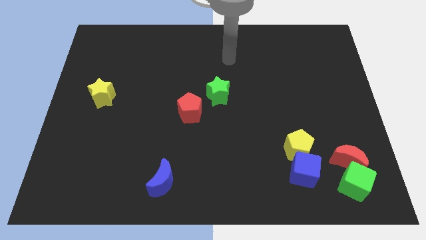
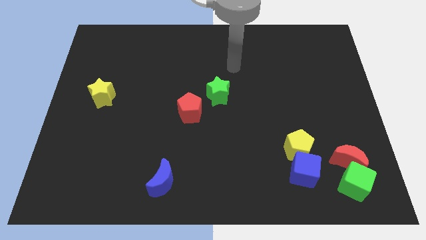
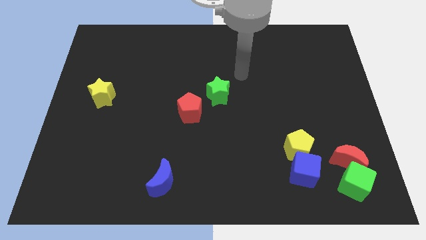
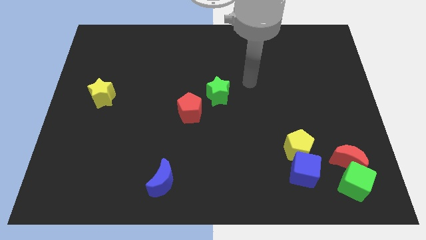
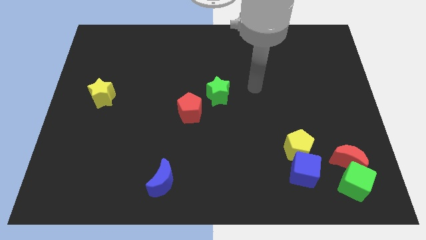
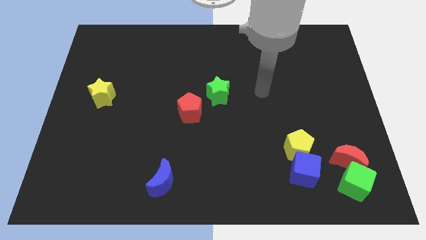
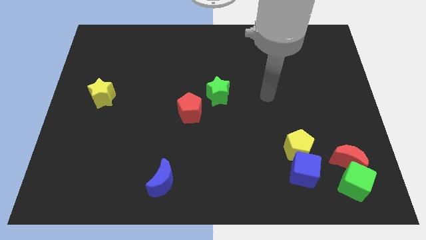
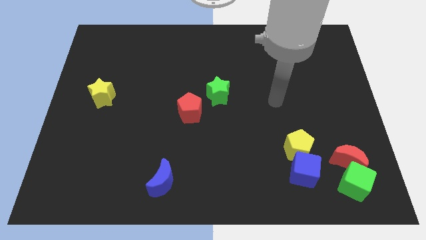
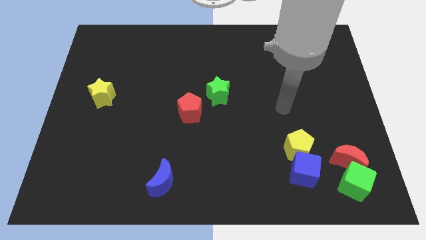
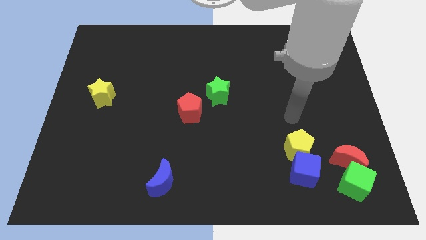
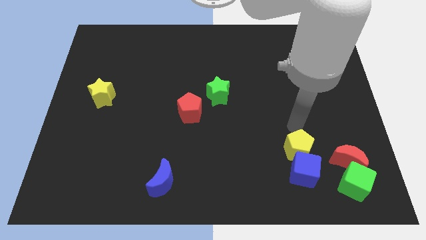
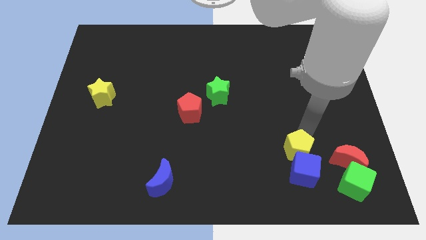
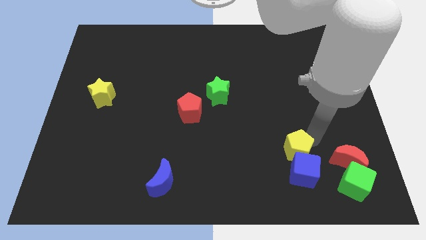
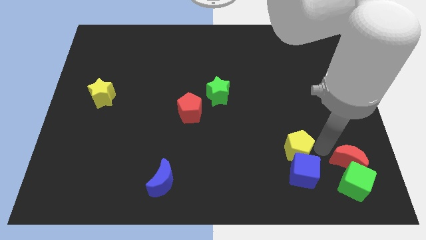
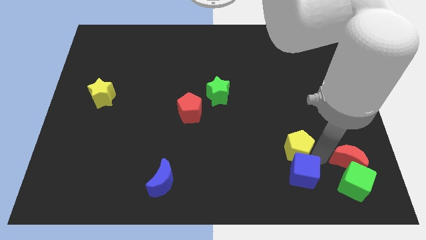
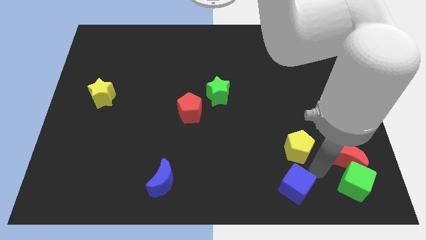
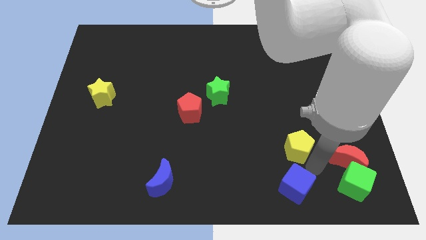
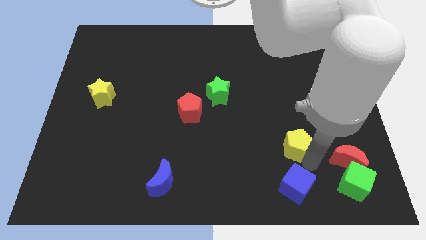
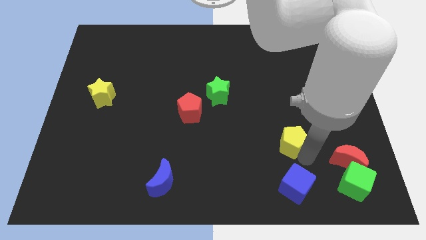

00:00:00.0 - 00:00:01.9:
separate the yellow pentagon from the blue cube

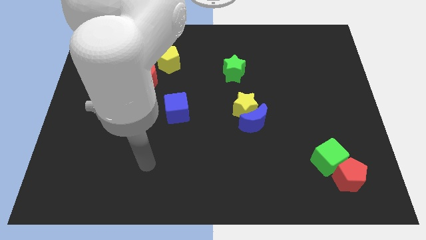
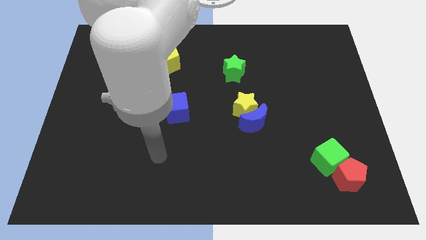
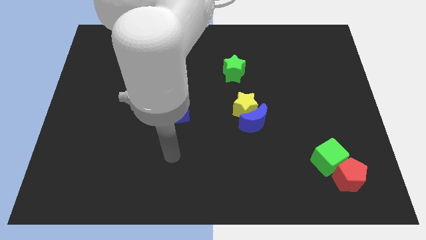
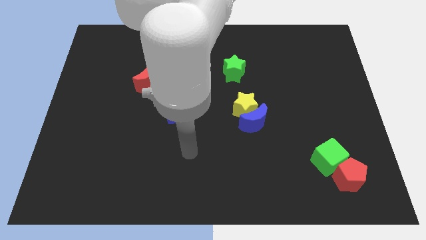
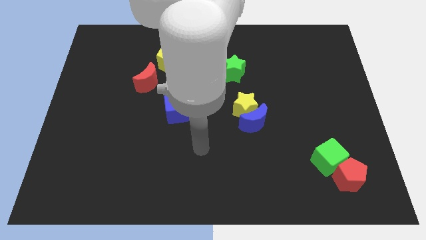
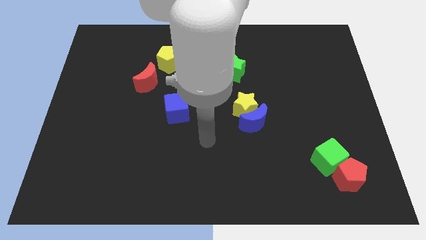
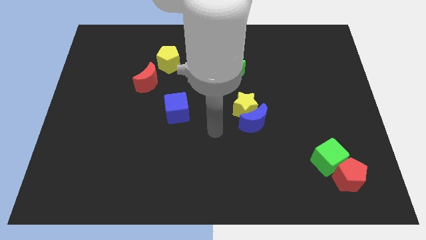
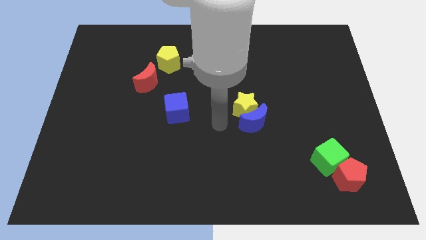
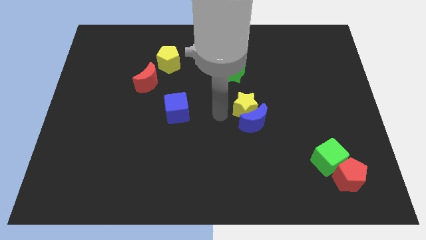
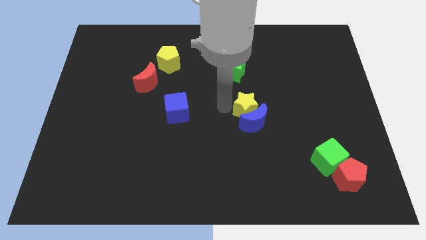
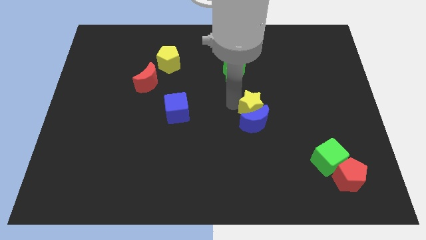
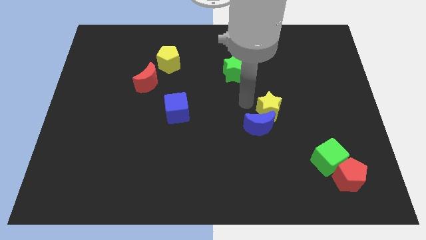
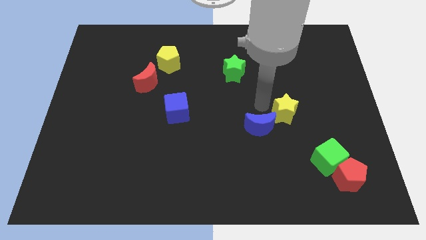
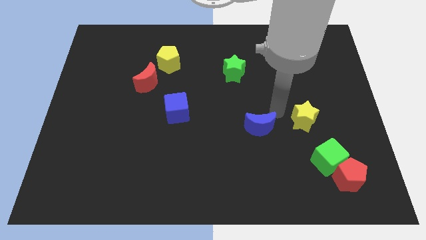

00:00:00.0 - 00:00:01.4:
pull the blue moon apart from the yellow star

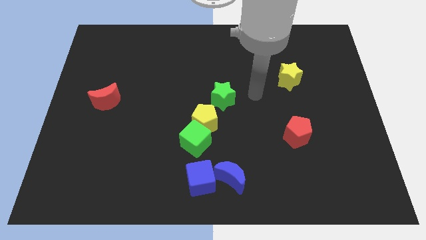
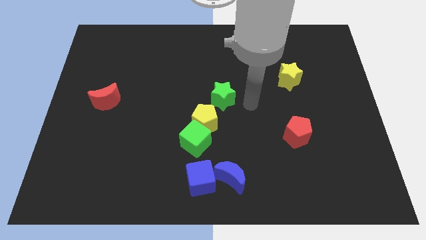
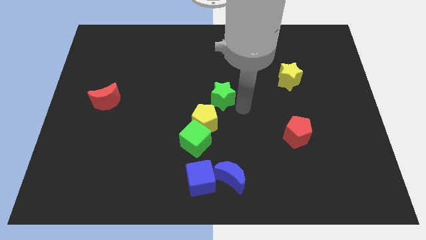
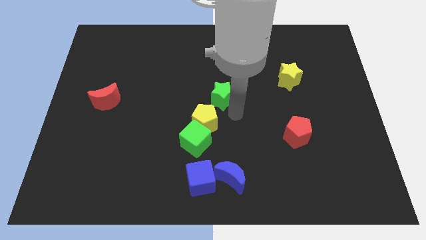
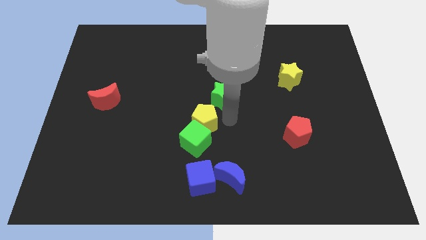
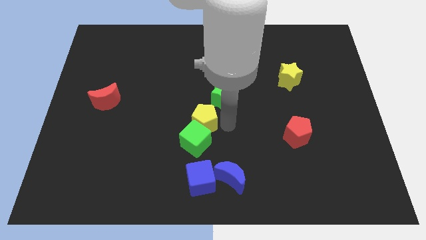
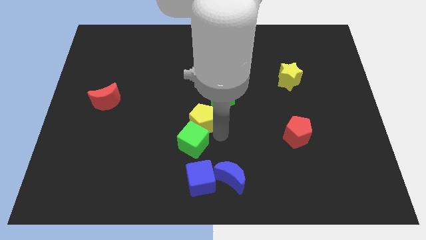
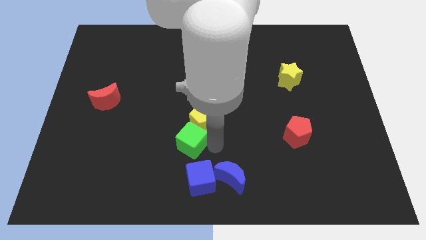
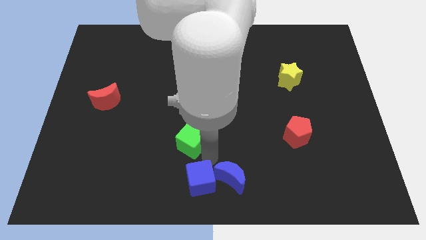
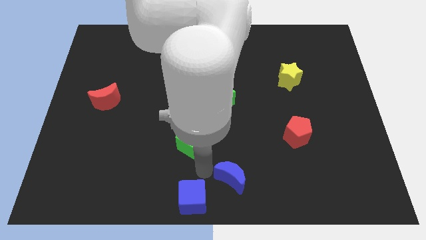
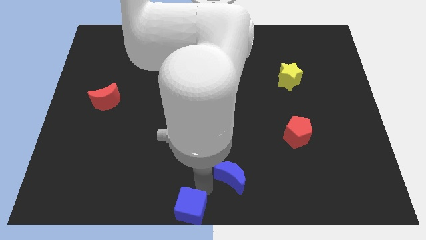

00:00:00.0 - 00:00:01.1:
pull the blue moon apart from the blue cube

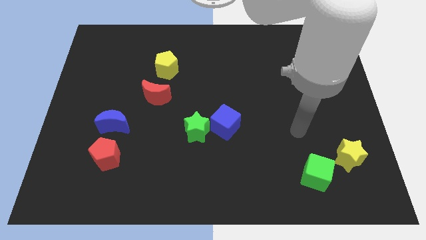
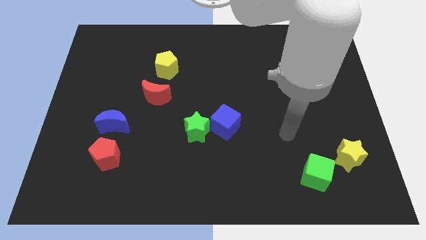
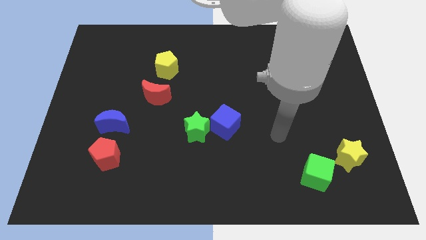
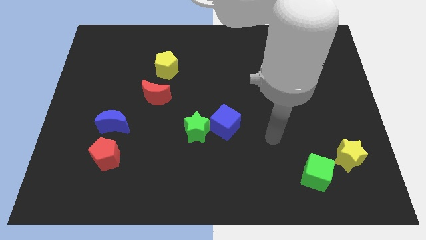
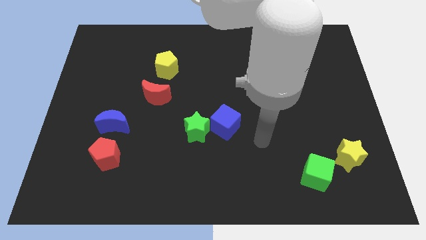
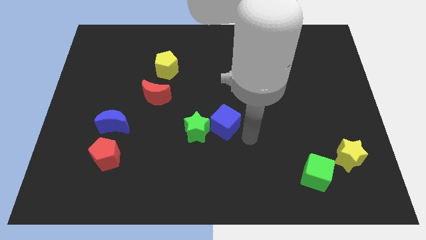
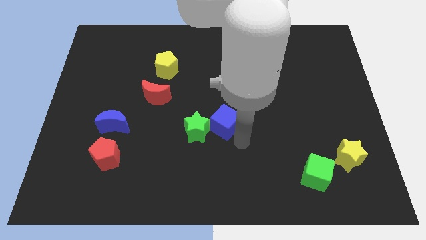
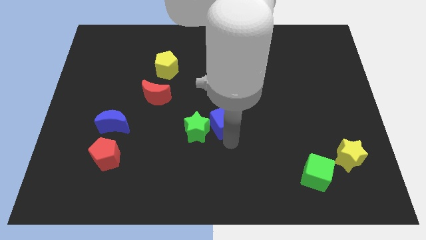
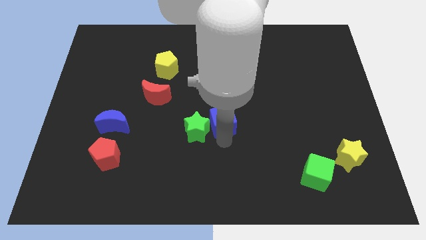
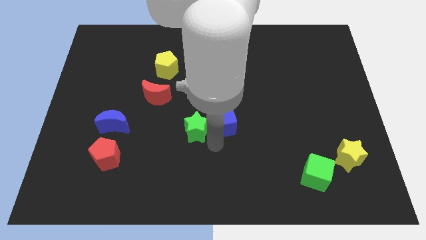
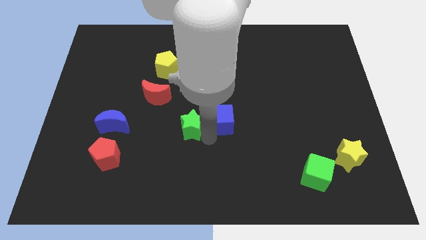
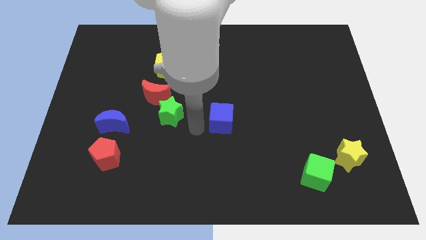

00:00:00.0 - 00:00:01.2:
pull the blue cube apart from the green star

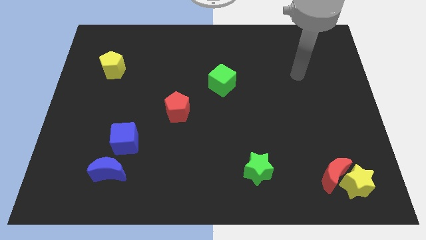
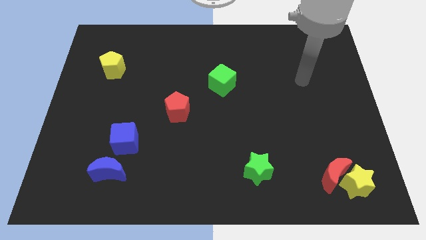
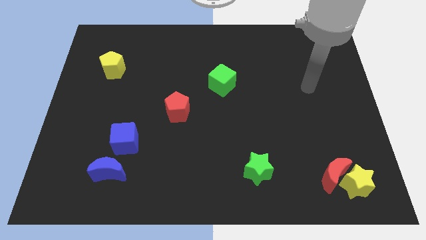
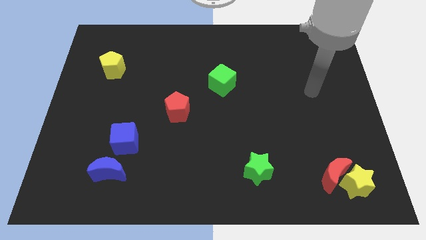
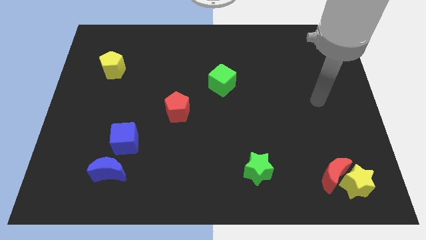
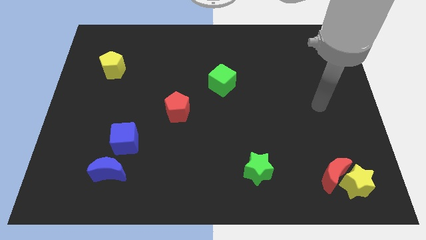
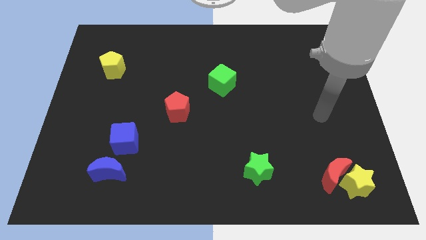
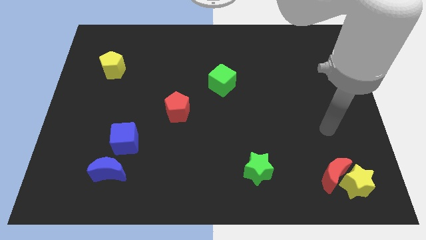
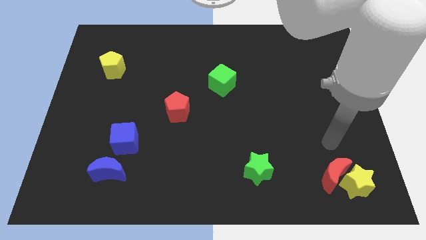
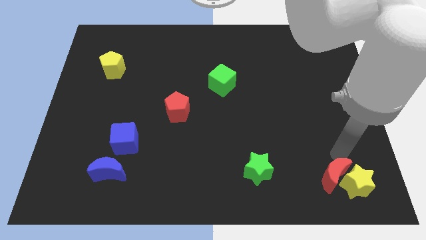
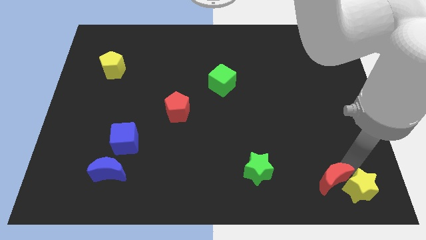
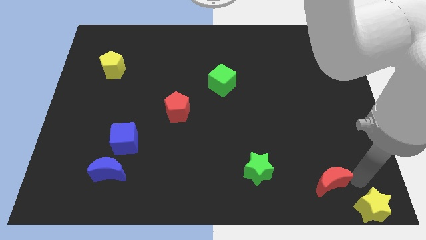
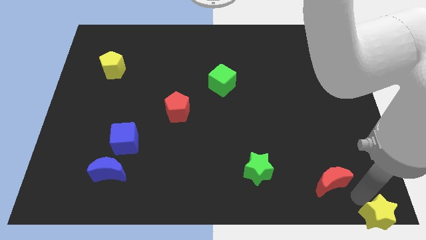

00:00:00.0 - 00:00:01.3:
pull the red moon apart from the yellow star

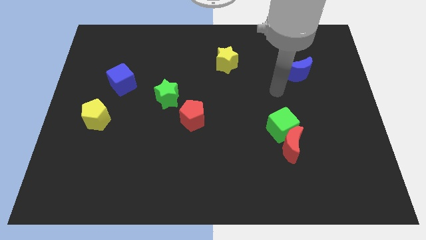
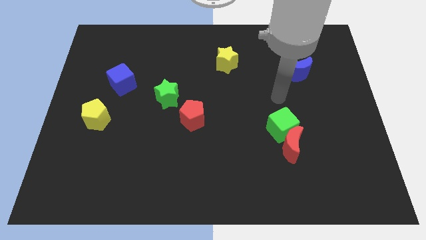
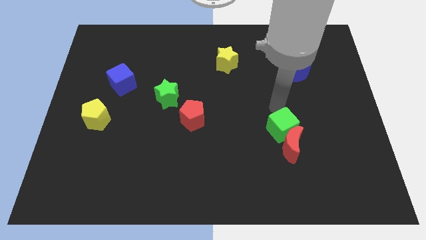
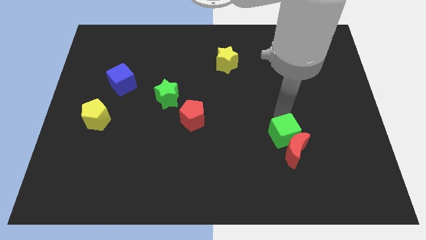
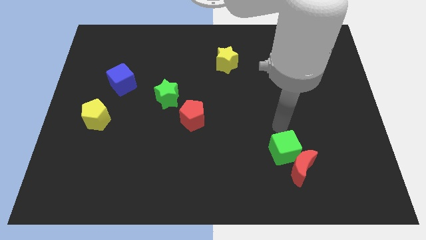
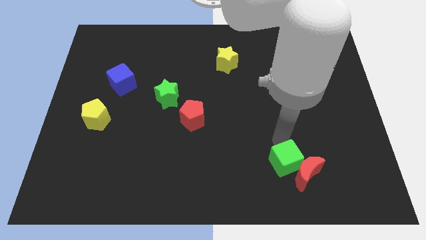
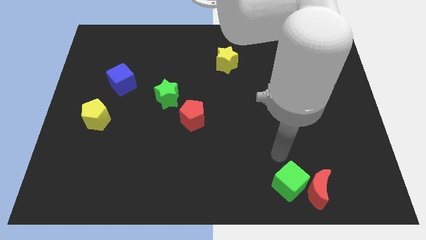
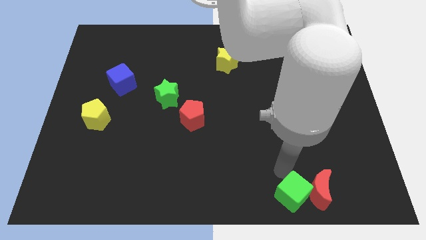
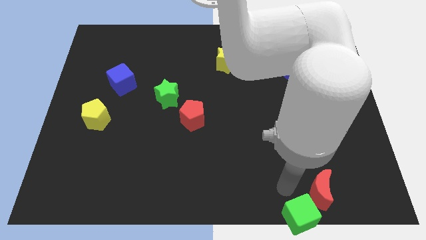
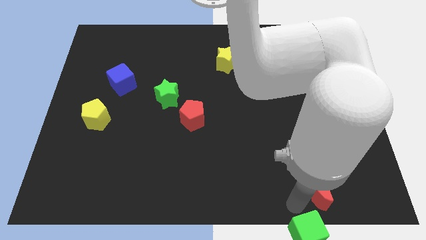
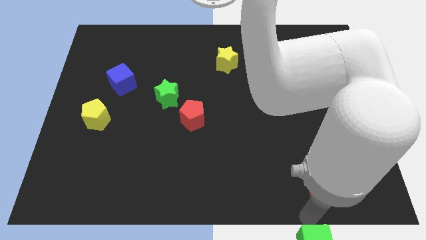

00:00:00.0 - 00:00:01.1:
pull the red moon apart from the green cube

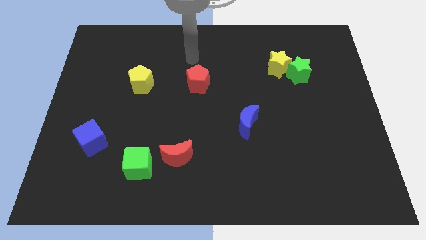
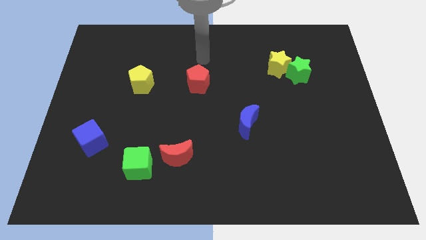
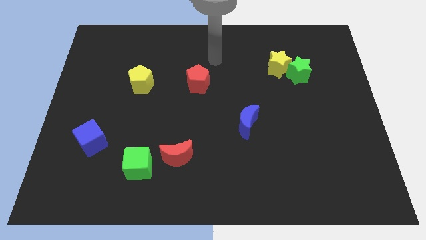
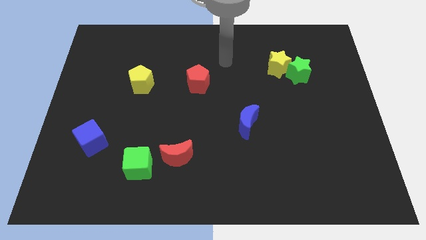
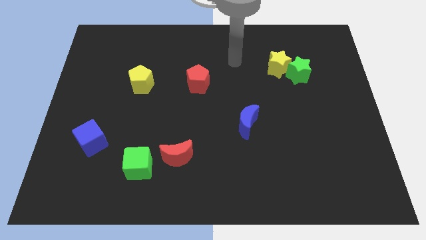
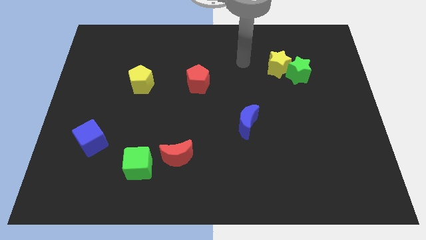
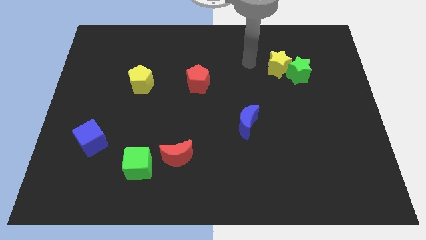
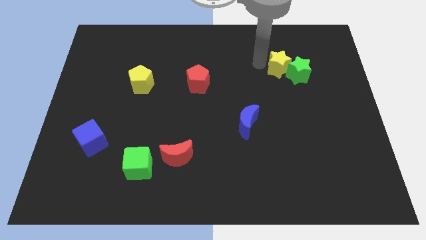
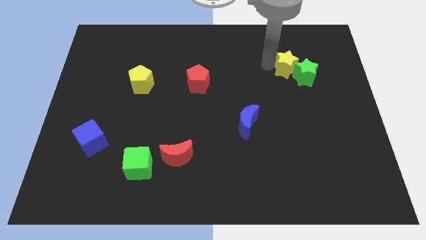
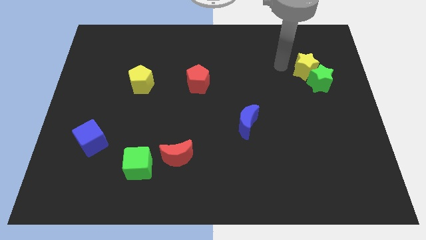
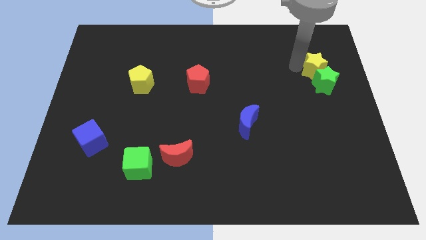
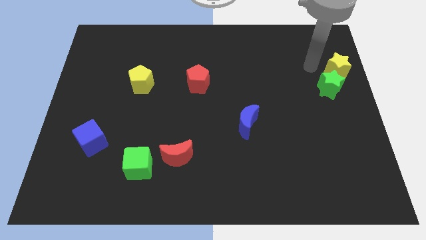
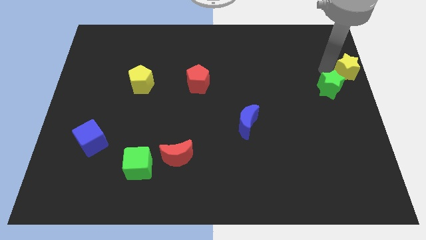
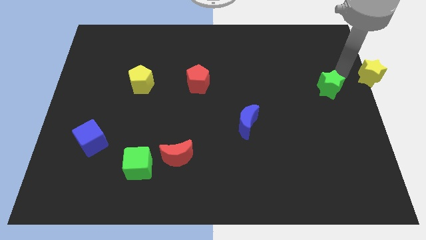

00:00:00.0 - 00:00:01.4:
separate the green star from the yellow star
